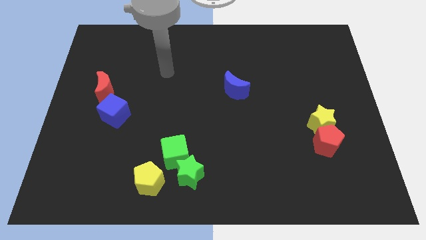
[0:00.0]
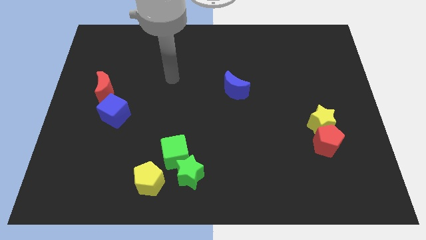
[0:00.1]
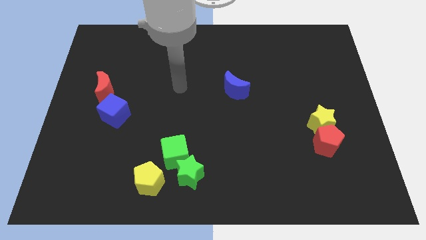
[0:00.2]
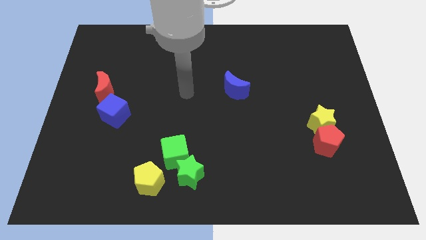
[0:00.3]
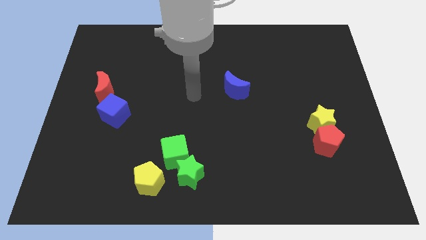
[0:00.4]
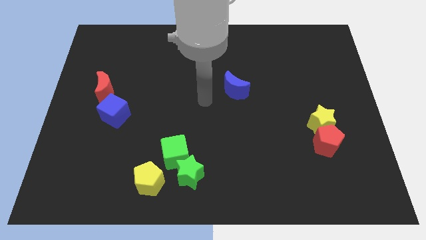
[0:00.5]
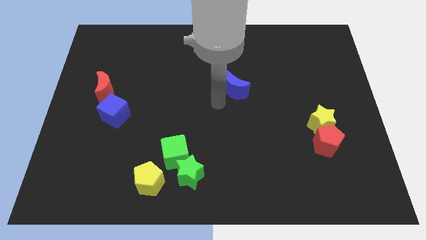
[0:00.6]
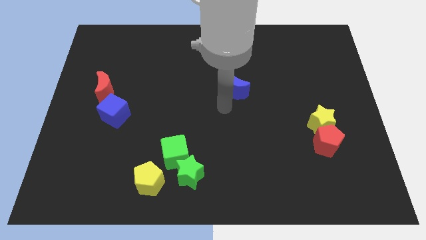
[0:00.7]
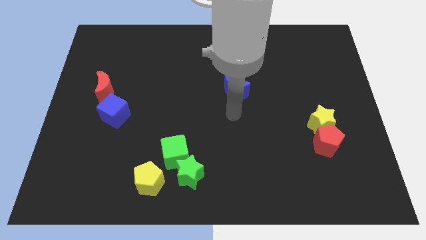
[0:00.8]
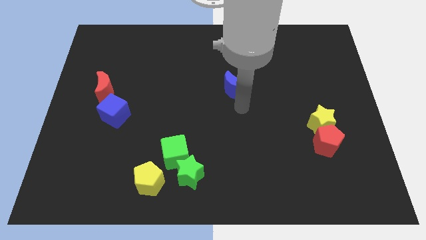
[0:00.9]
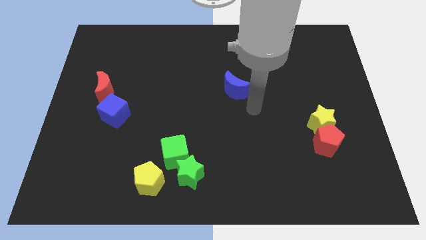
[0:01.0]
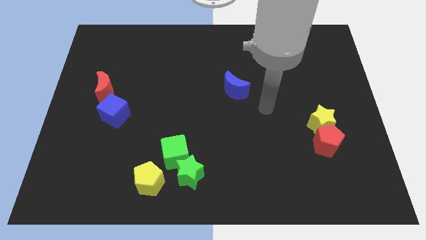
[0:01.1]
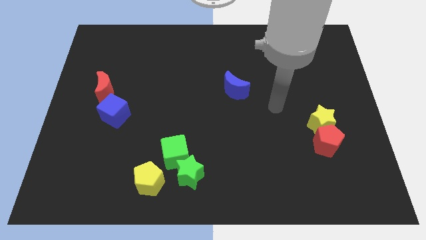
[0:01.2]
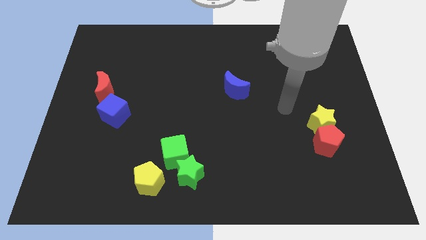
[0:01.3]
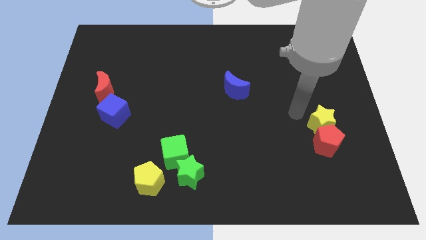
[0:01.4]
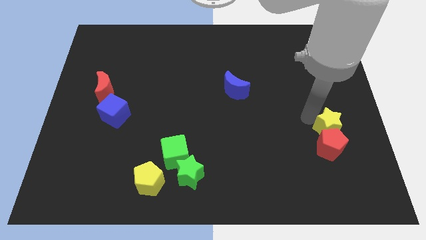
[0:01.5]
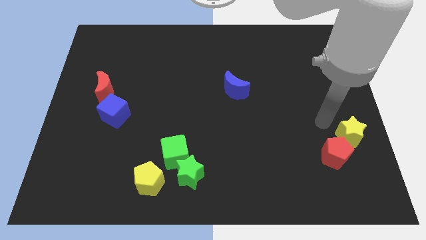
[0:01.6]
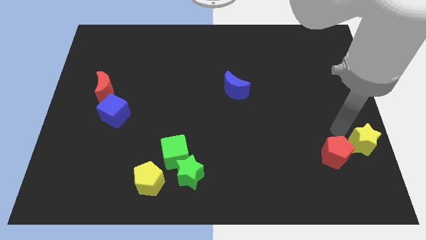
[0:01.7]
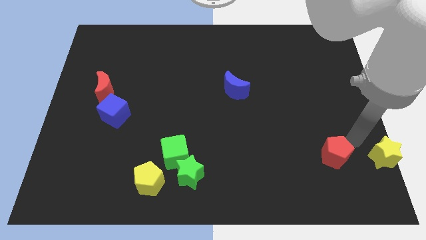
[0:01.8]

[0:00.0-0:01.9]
move the red pentagon away from the yellow star

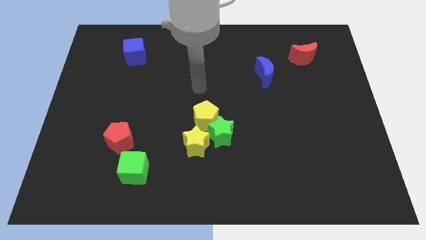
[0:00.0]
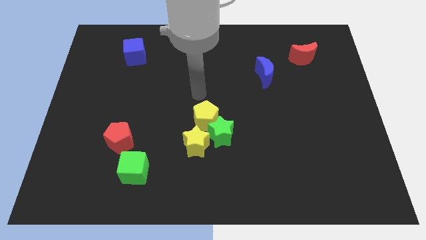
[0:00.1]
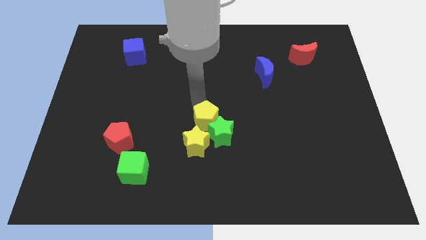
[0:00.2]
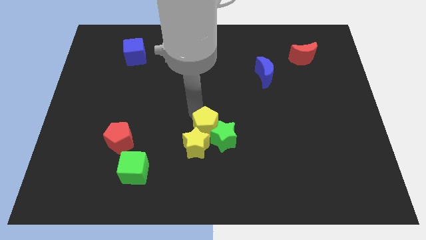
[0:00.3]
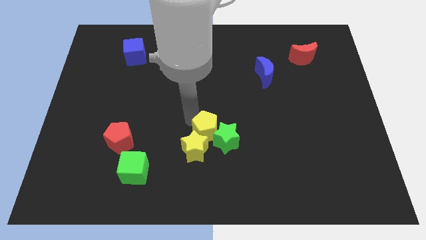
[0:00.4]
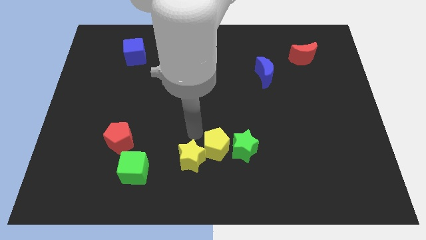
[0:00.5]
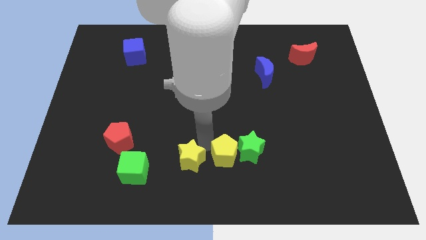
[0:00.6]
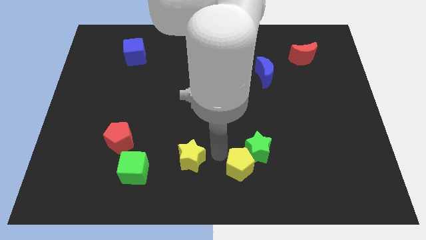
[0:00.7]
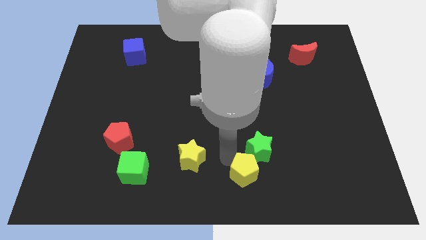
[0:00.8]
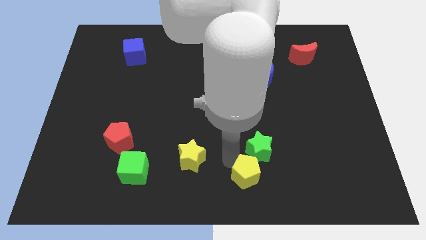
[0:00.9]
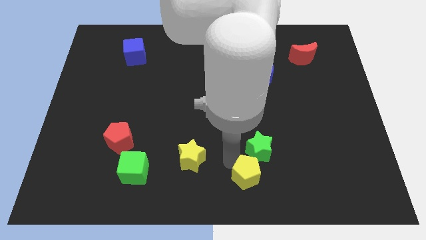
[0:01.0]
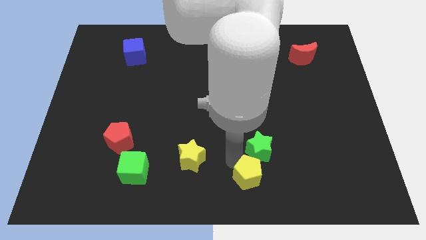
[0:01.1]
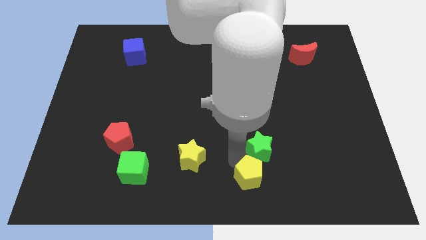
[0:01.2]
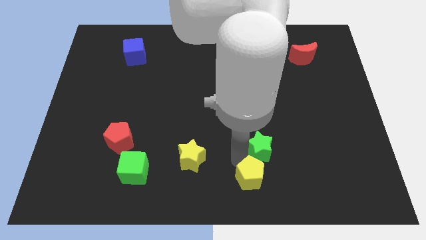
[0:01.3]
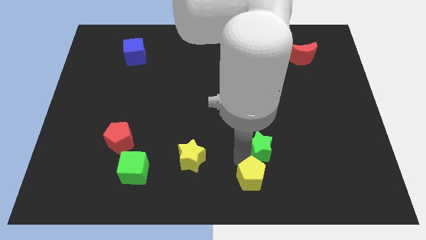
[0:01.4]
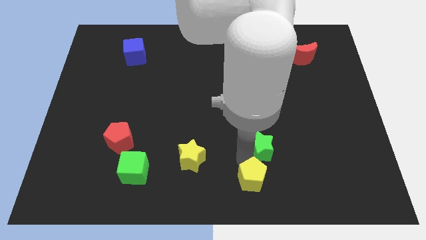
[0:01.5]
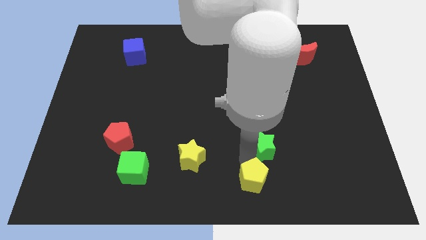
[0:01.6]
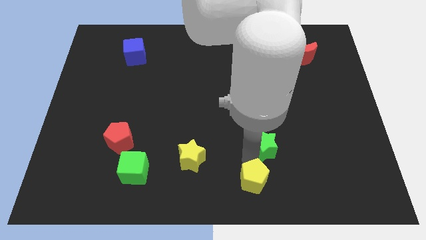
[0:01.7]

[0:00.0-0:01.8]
separate the green star from the yellow pentagon and yellow star

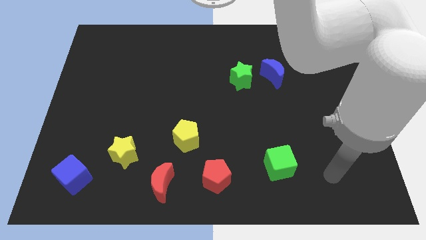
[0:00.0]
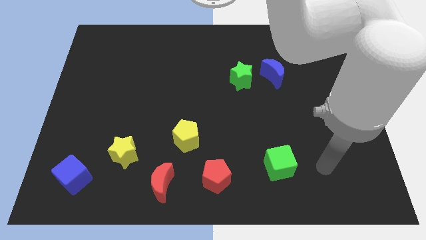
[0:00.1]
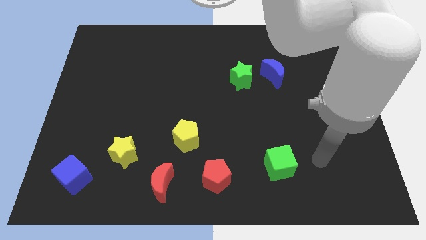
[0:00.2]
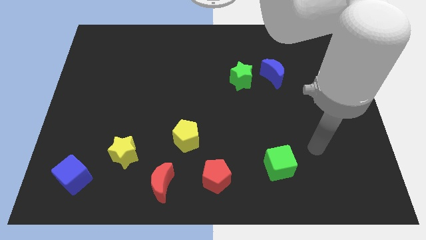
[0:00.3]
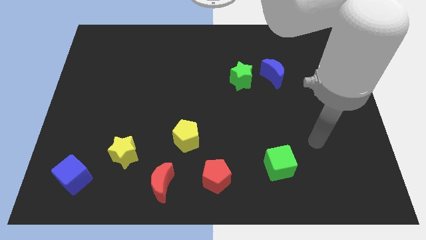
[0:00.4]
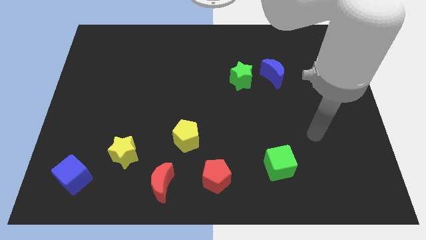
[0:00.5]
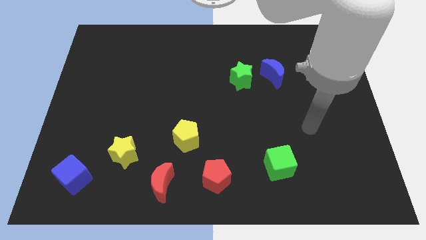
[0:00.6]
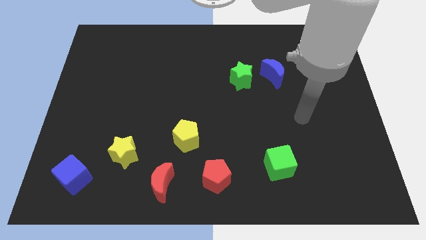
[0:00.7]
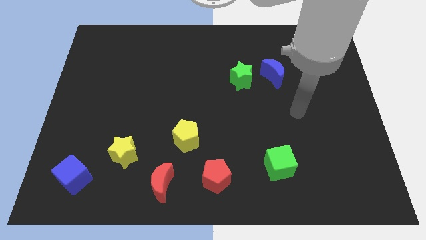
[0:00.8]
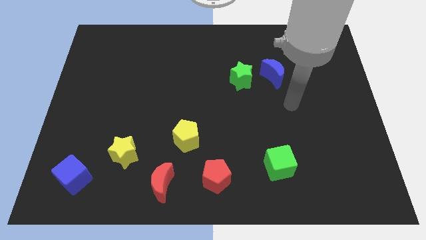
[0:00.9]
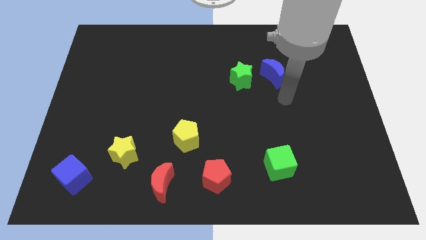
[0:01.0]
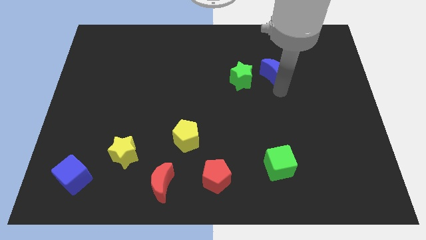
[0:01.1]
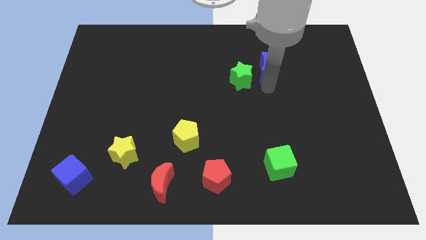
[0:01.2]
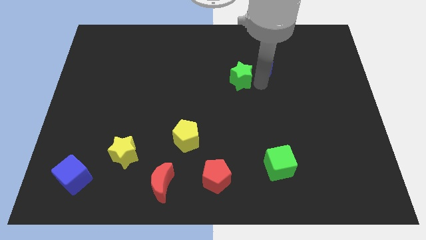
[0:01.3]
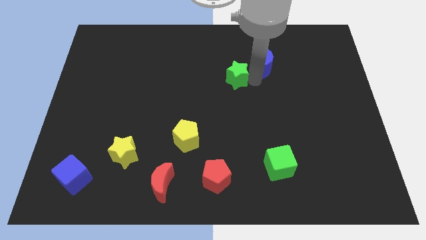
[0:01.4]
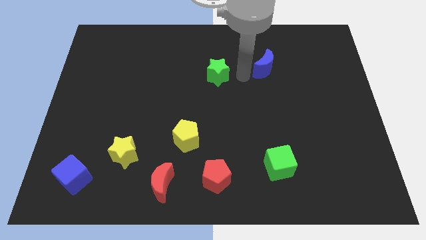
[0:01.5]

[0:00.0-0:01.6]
move the blue moon away from the green star

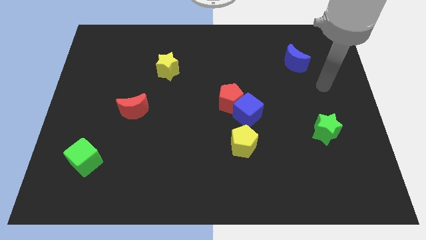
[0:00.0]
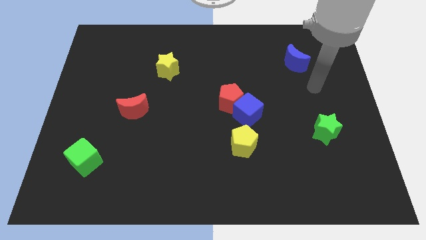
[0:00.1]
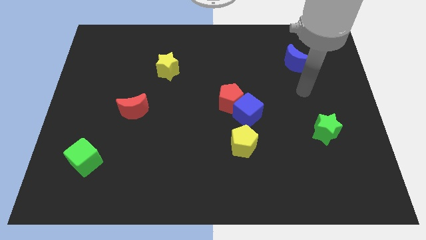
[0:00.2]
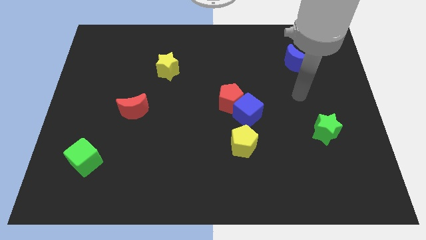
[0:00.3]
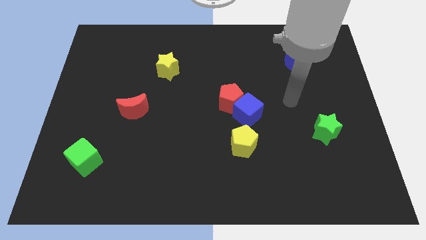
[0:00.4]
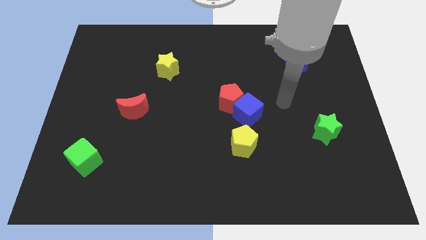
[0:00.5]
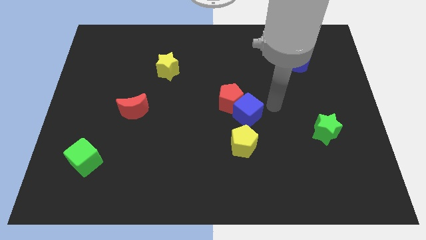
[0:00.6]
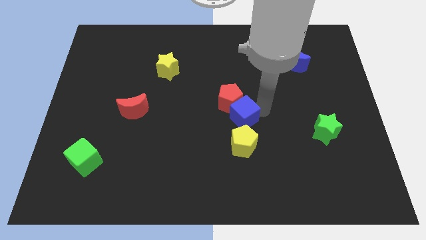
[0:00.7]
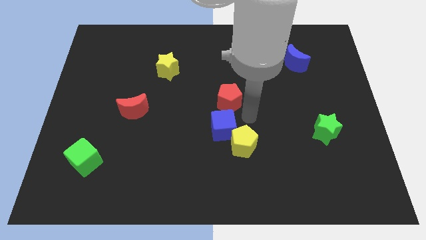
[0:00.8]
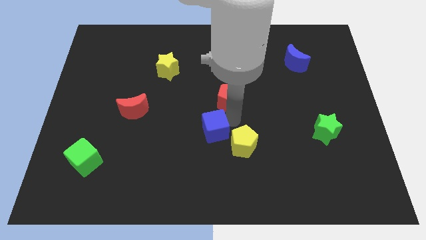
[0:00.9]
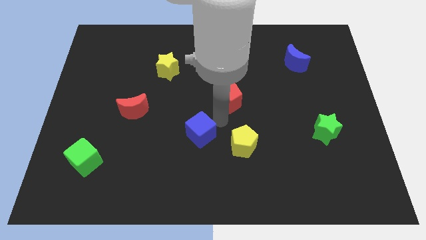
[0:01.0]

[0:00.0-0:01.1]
move the red pentagon away from the blue cube

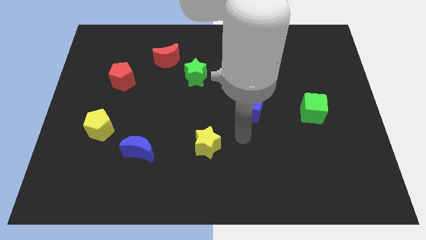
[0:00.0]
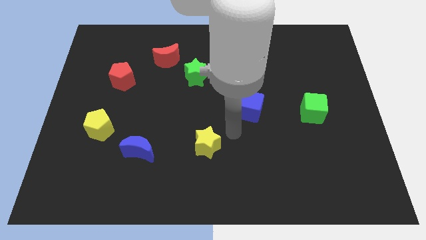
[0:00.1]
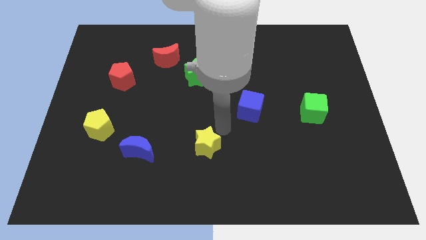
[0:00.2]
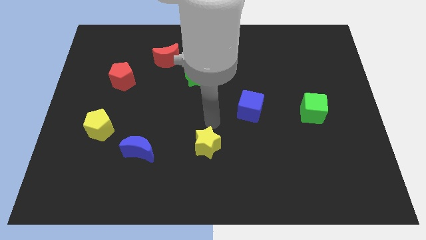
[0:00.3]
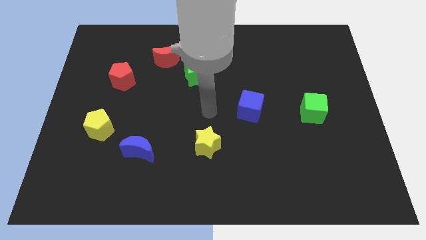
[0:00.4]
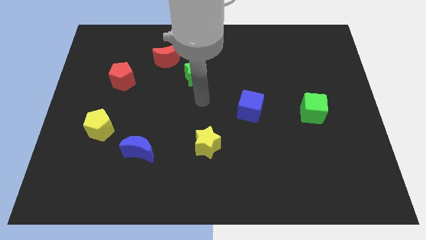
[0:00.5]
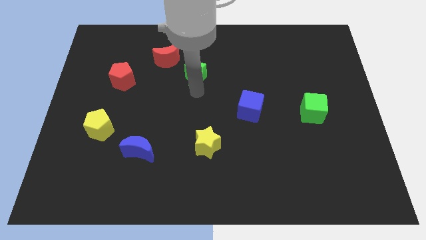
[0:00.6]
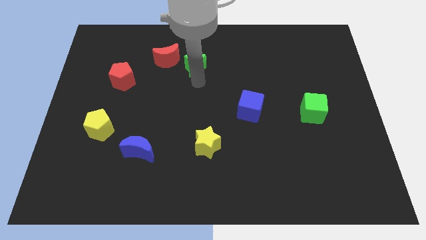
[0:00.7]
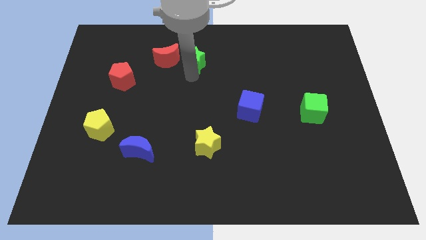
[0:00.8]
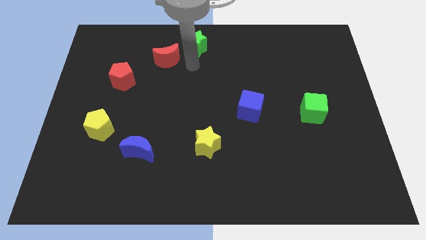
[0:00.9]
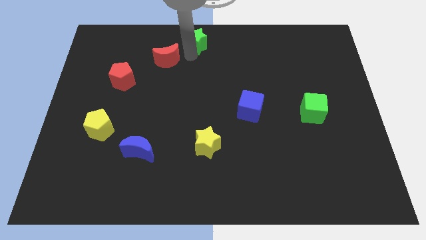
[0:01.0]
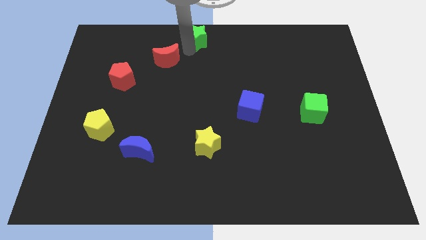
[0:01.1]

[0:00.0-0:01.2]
pull the red moon apart from the green star

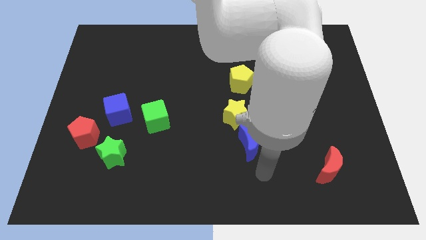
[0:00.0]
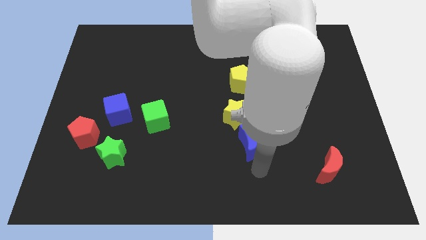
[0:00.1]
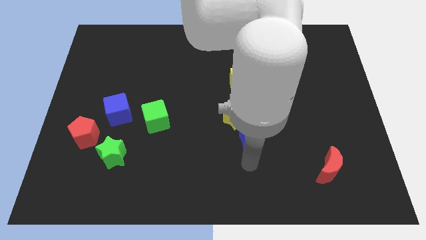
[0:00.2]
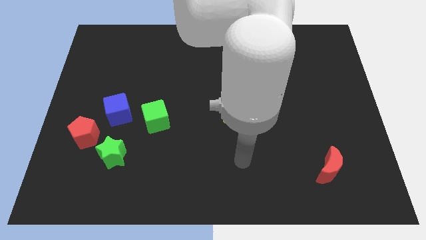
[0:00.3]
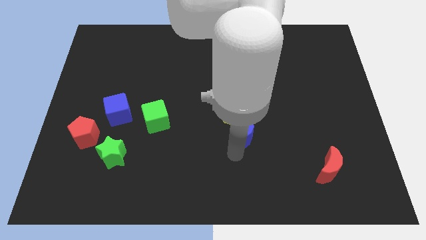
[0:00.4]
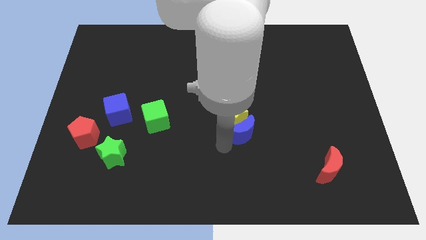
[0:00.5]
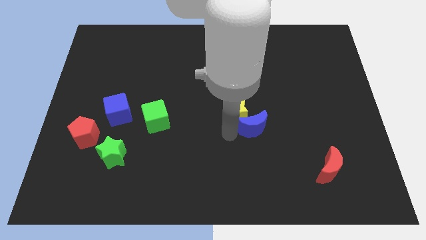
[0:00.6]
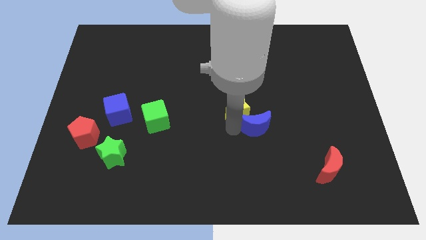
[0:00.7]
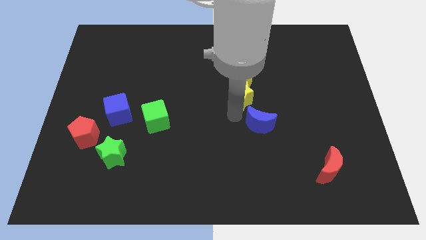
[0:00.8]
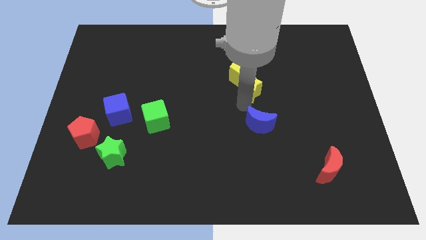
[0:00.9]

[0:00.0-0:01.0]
pull the blue moon apart from the yellow star

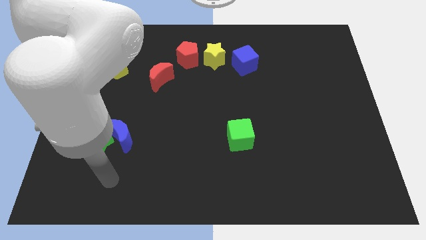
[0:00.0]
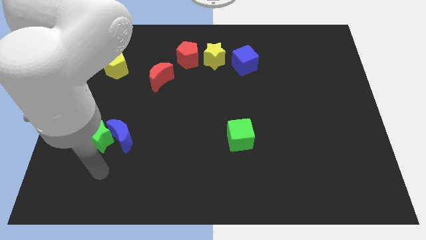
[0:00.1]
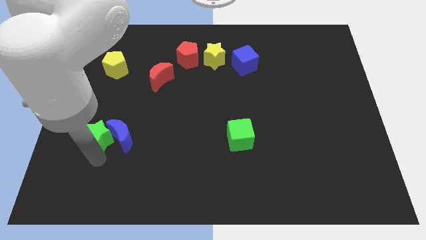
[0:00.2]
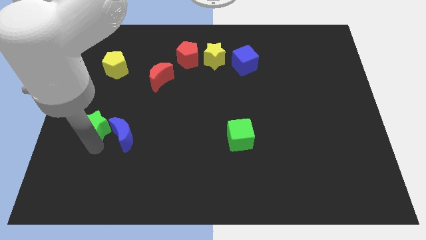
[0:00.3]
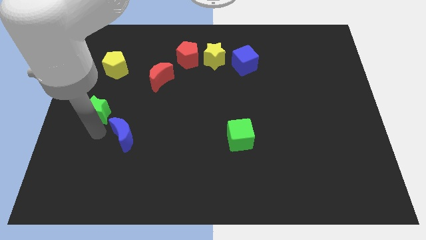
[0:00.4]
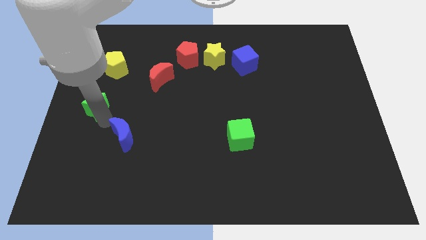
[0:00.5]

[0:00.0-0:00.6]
pull the blue moon apart from the green star
